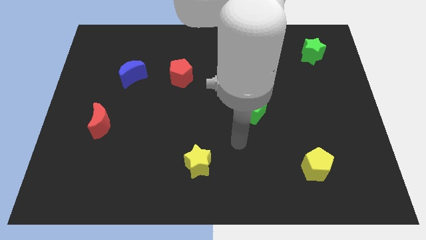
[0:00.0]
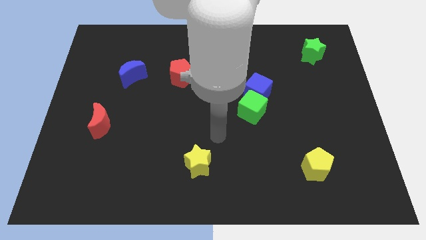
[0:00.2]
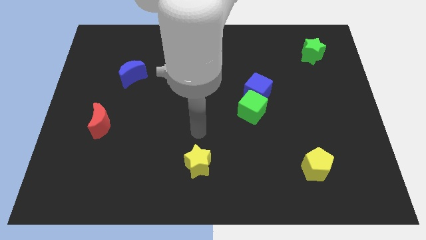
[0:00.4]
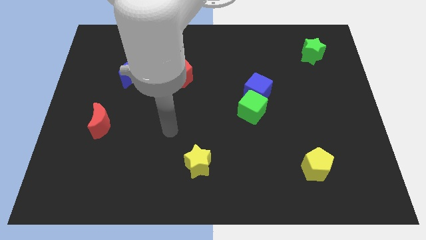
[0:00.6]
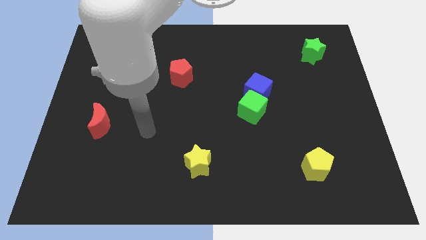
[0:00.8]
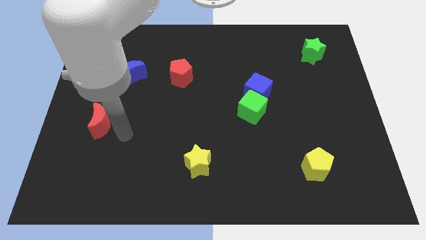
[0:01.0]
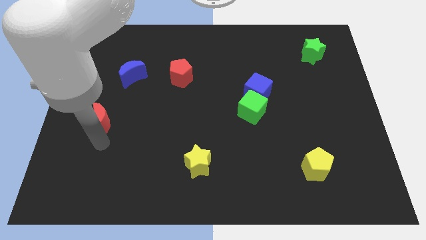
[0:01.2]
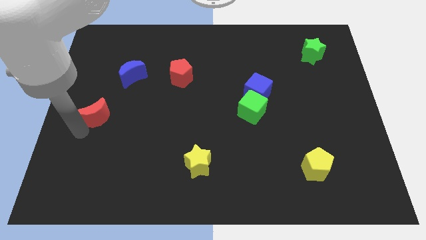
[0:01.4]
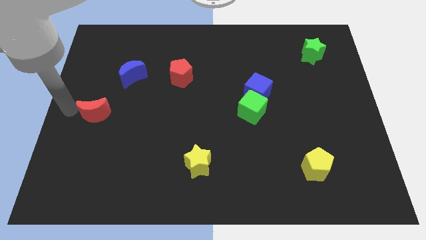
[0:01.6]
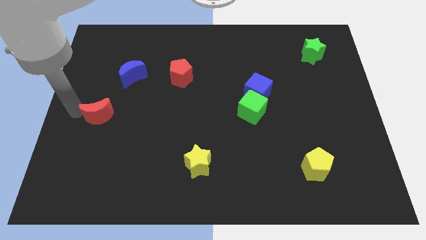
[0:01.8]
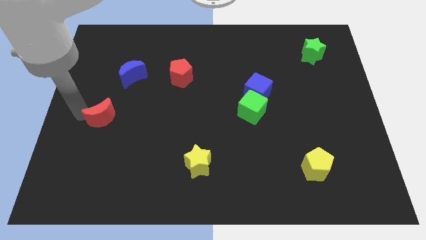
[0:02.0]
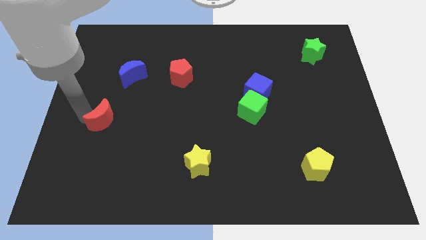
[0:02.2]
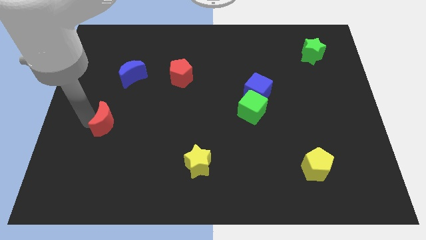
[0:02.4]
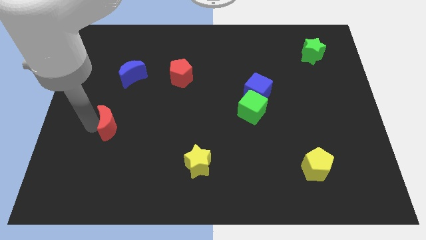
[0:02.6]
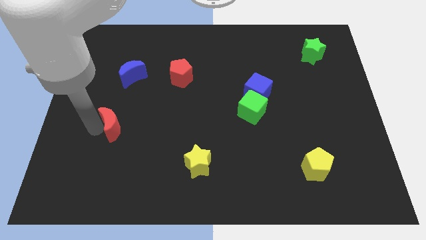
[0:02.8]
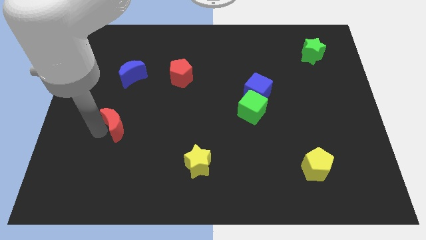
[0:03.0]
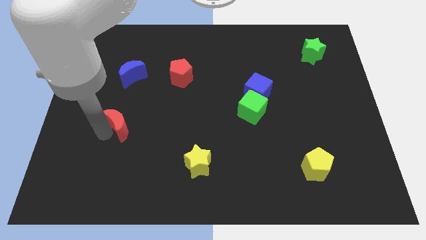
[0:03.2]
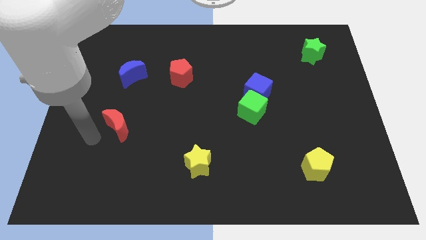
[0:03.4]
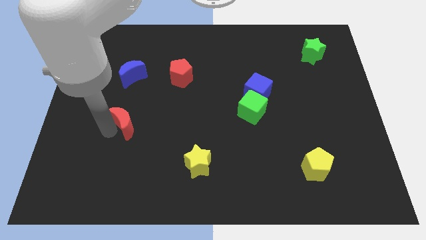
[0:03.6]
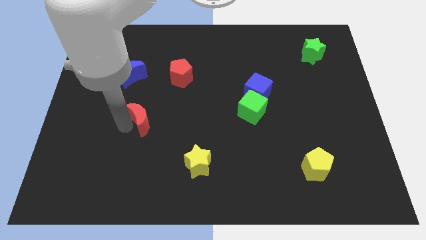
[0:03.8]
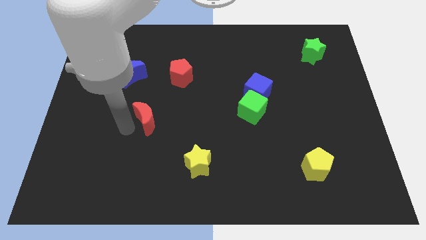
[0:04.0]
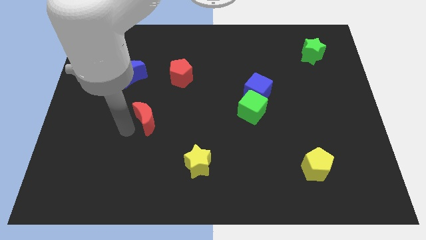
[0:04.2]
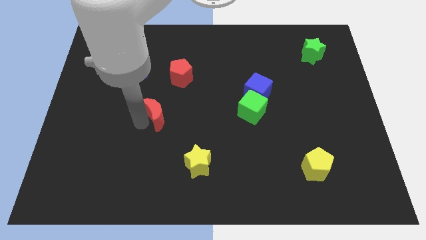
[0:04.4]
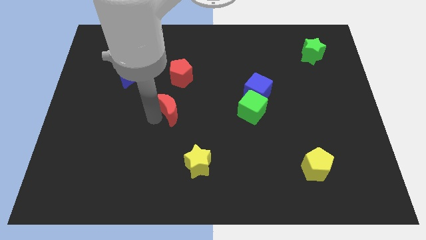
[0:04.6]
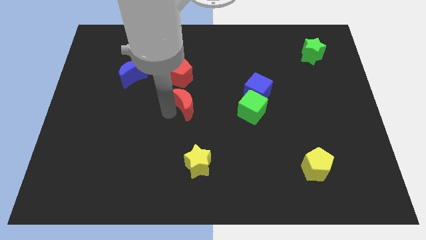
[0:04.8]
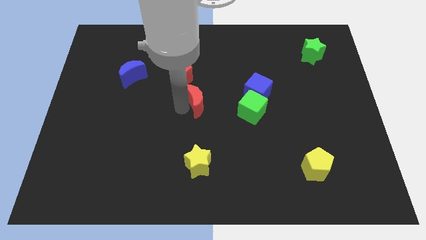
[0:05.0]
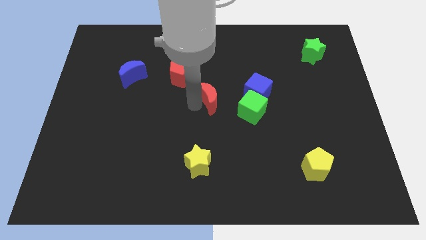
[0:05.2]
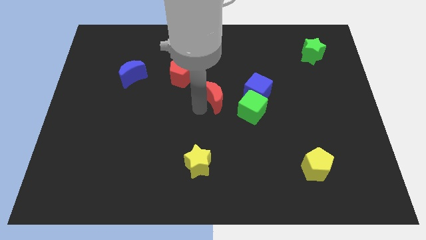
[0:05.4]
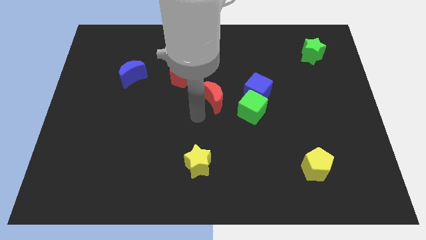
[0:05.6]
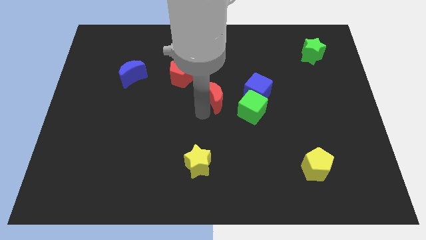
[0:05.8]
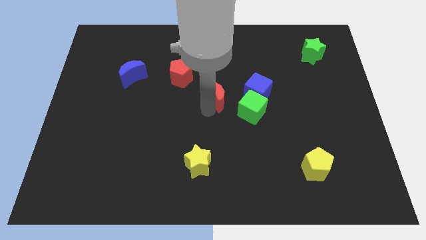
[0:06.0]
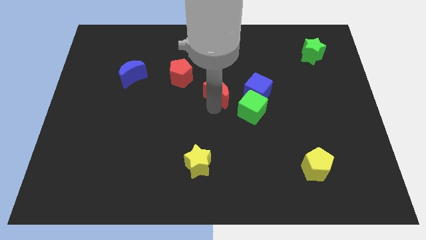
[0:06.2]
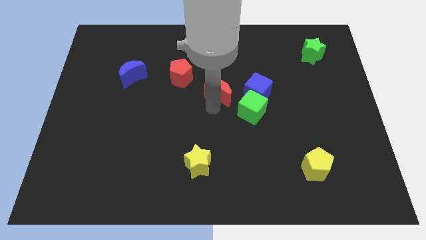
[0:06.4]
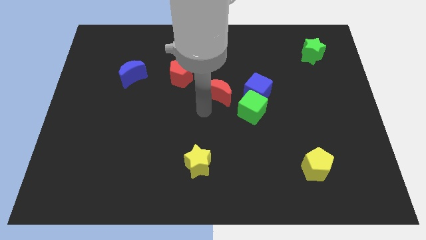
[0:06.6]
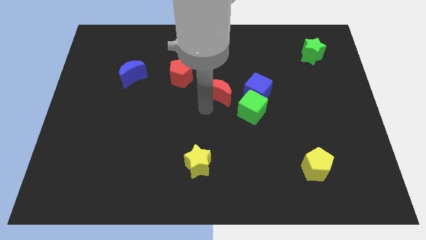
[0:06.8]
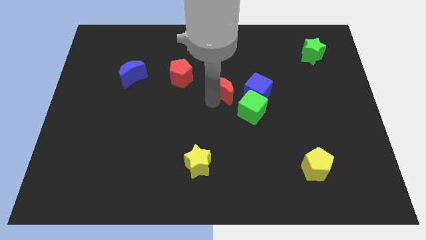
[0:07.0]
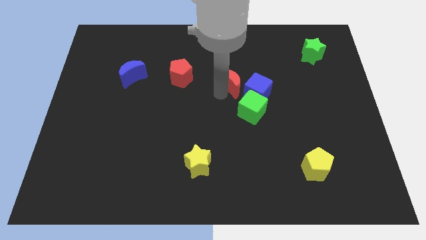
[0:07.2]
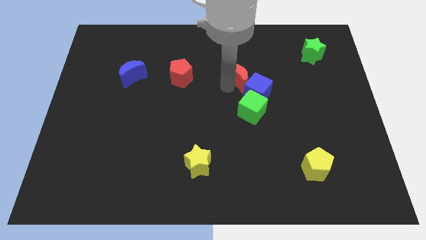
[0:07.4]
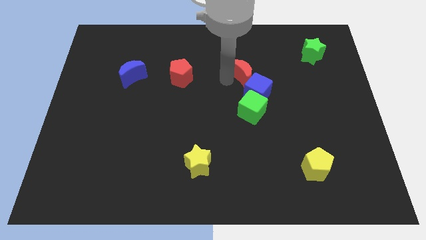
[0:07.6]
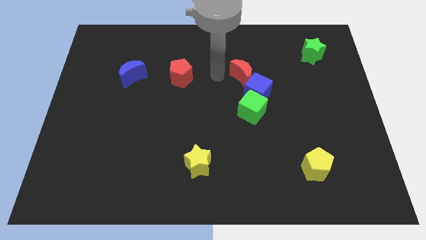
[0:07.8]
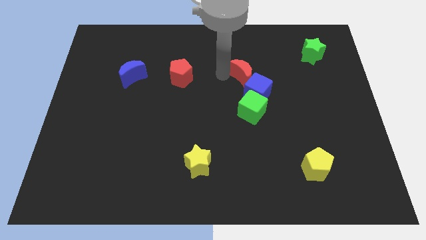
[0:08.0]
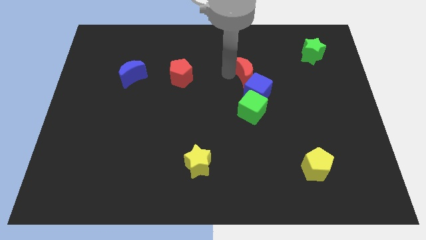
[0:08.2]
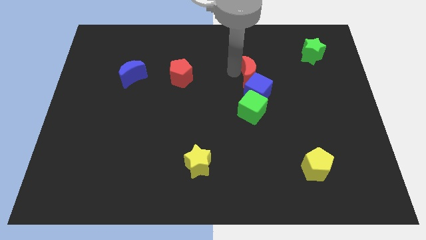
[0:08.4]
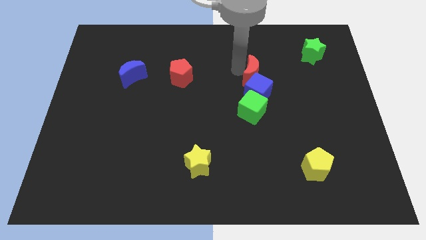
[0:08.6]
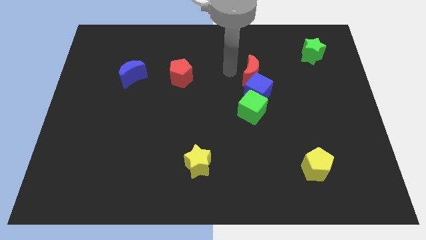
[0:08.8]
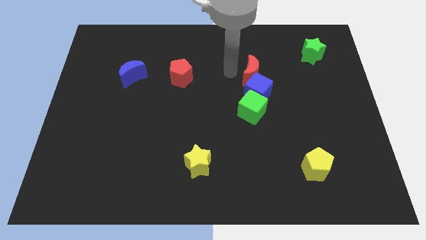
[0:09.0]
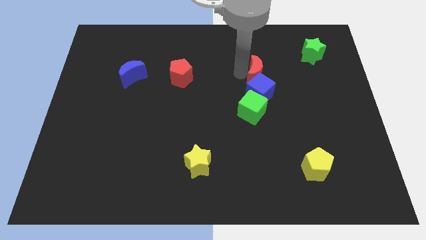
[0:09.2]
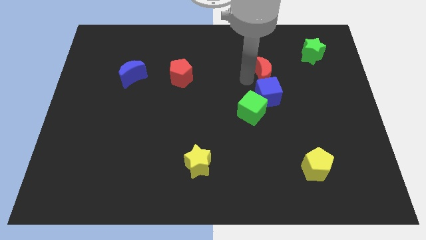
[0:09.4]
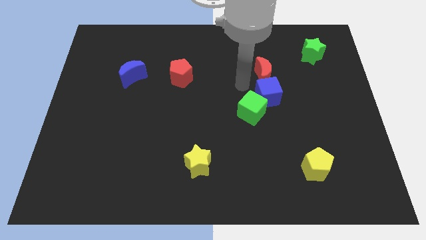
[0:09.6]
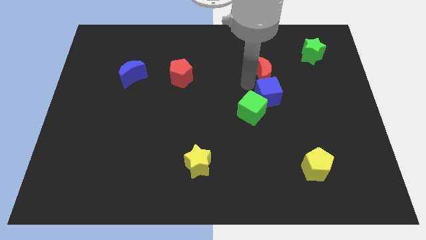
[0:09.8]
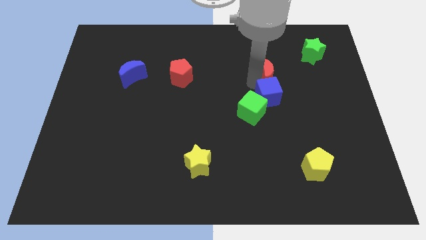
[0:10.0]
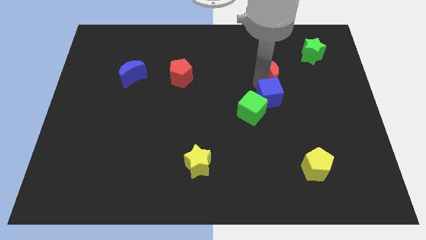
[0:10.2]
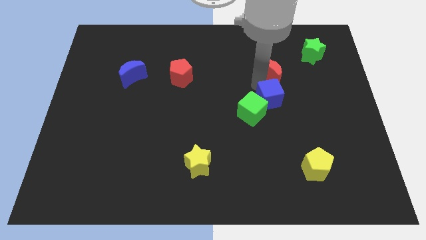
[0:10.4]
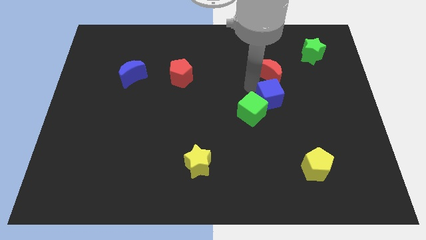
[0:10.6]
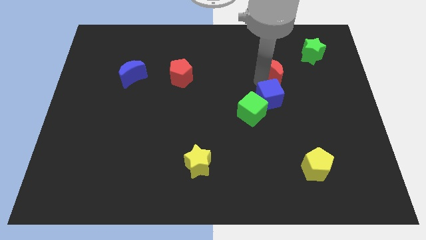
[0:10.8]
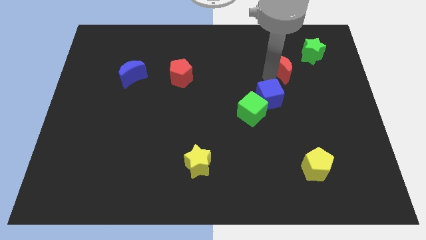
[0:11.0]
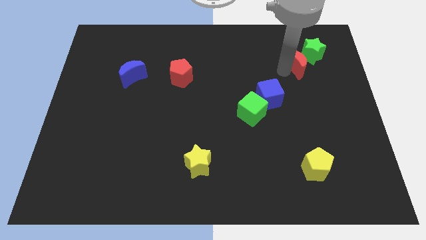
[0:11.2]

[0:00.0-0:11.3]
move the red moon close to the green star

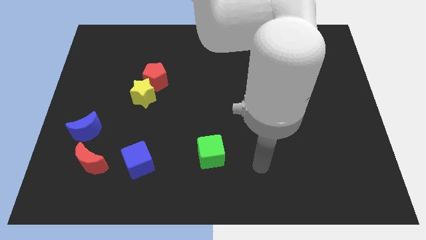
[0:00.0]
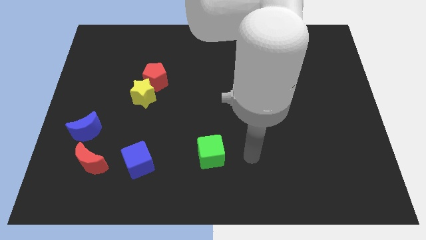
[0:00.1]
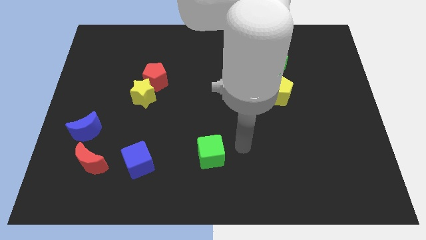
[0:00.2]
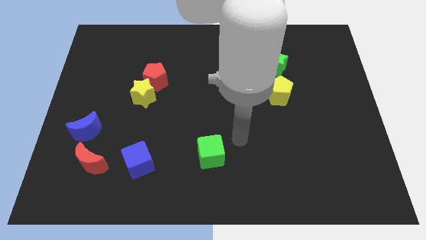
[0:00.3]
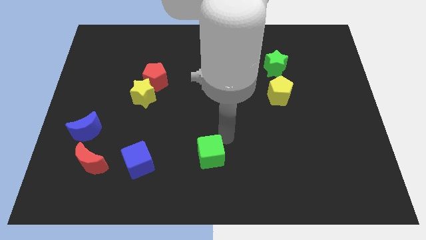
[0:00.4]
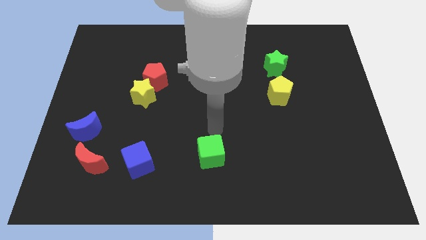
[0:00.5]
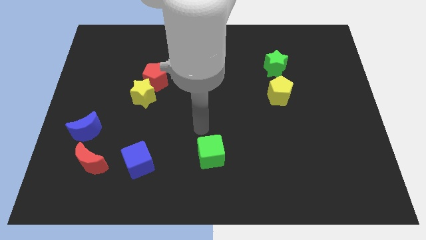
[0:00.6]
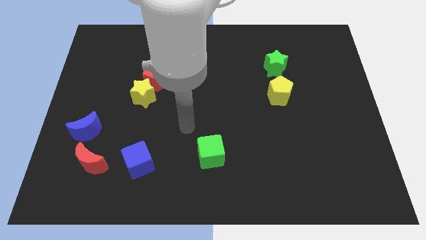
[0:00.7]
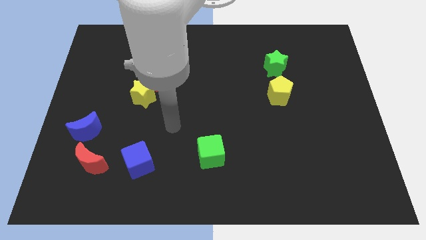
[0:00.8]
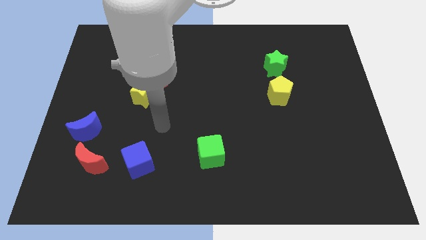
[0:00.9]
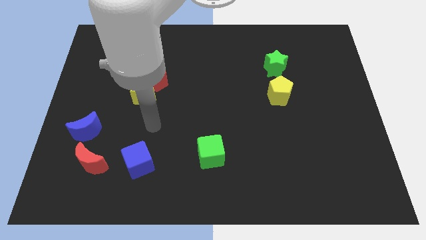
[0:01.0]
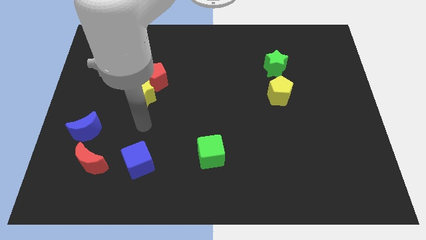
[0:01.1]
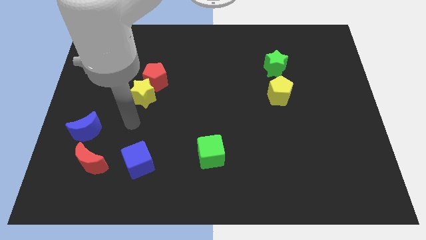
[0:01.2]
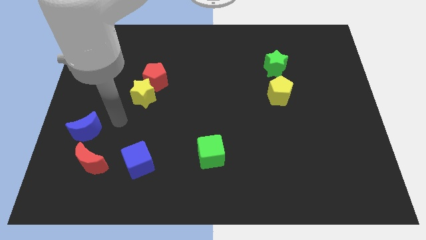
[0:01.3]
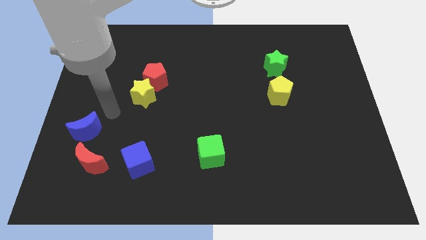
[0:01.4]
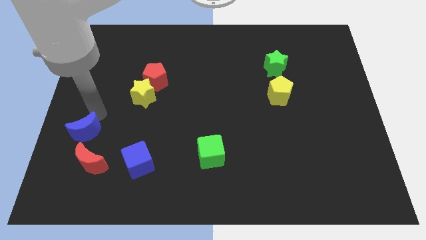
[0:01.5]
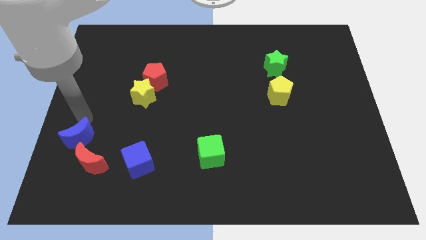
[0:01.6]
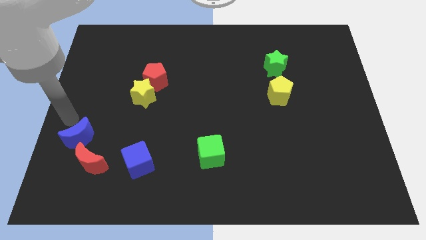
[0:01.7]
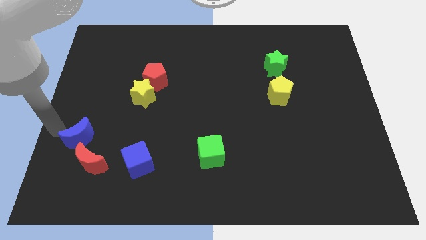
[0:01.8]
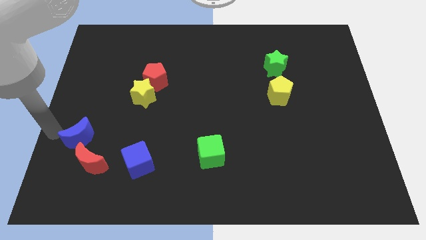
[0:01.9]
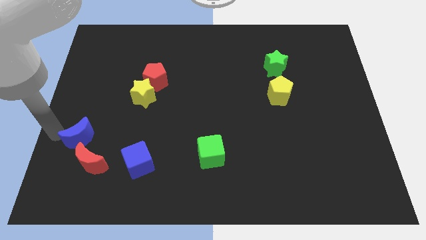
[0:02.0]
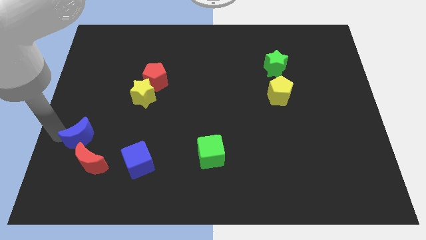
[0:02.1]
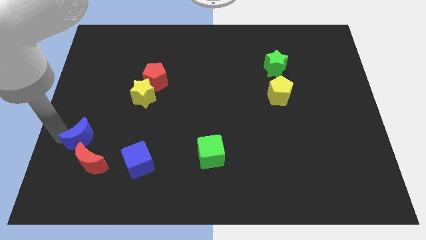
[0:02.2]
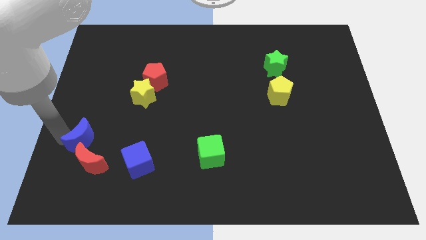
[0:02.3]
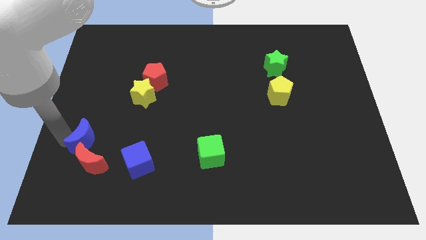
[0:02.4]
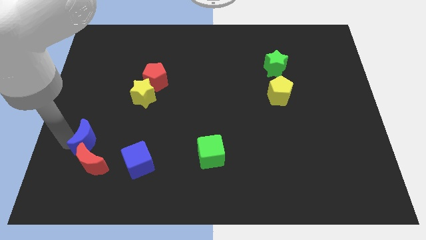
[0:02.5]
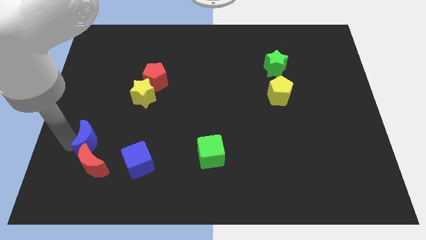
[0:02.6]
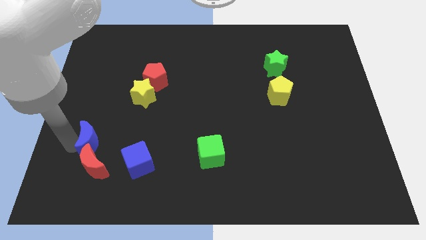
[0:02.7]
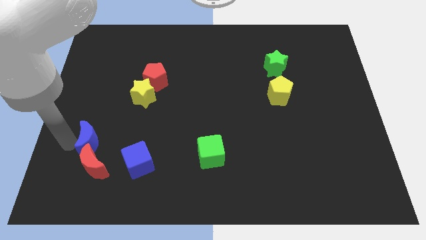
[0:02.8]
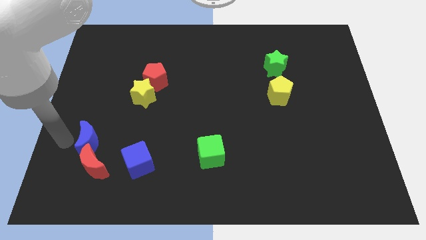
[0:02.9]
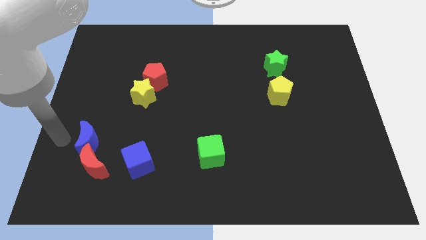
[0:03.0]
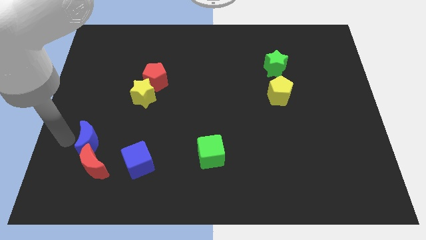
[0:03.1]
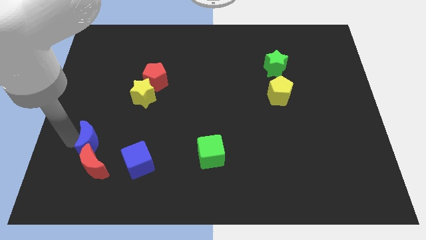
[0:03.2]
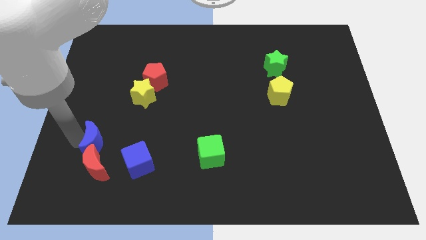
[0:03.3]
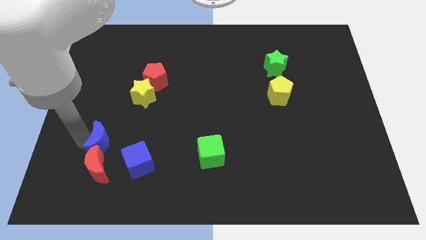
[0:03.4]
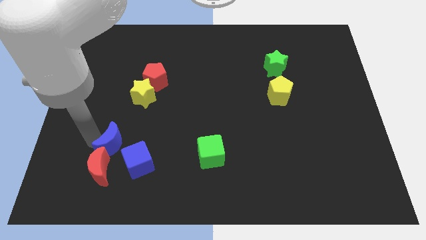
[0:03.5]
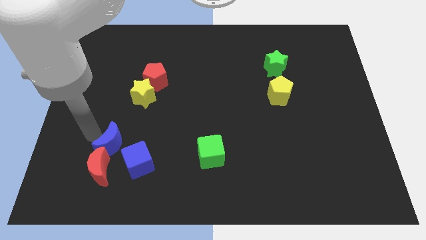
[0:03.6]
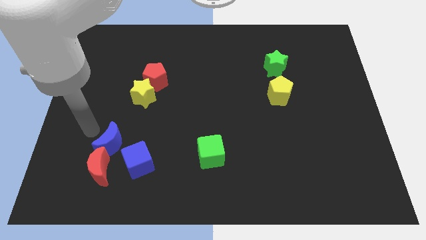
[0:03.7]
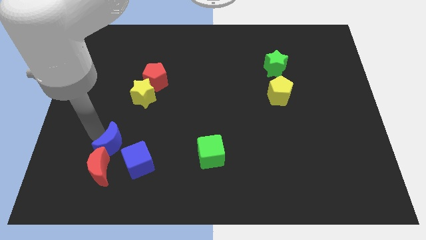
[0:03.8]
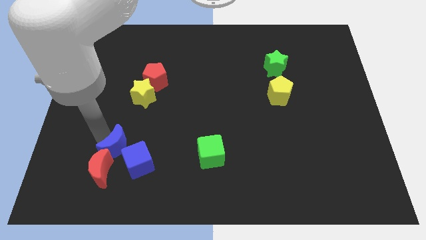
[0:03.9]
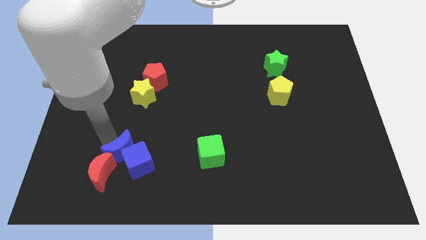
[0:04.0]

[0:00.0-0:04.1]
push the blue moon towards the blue cube
